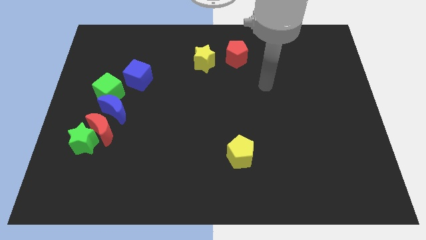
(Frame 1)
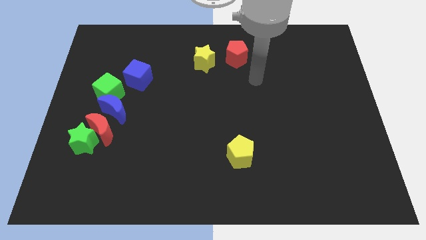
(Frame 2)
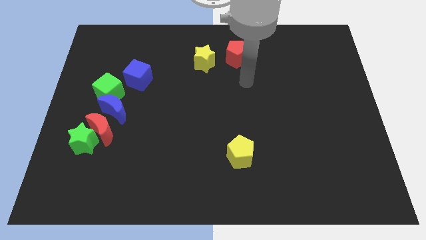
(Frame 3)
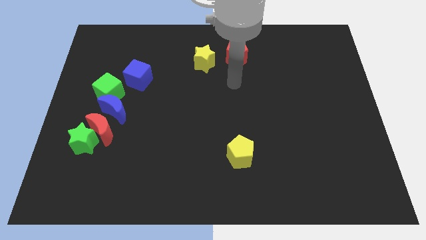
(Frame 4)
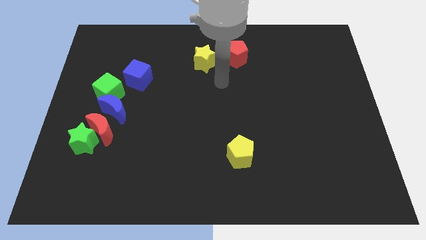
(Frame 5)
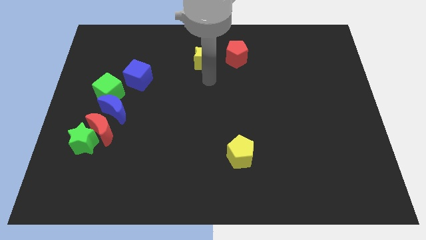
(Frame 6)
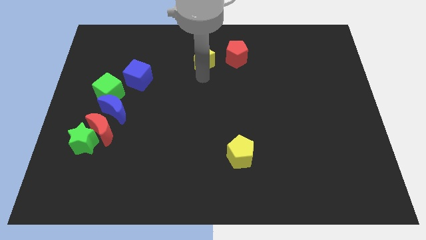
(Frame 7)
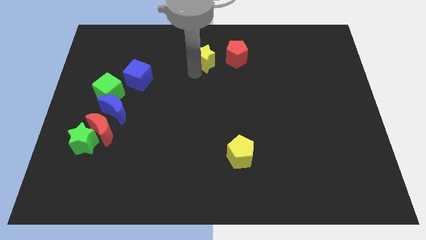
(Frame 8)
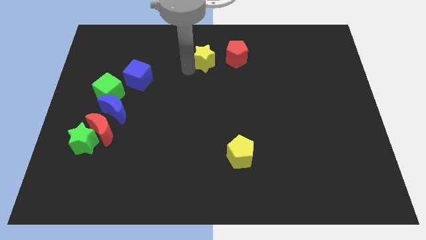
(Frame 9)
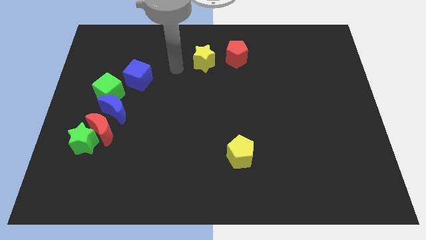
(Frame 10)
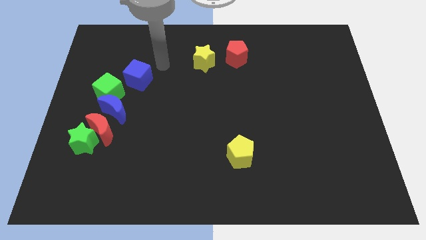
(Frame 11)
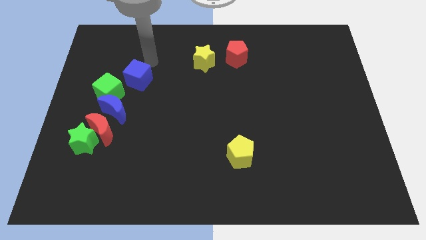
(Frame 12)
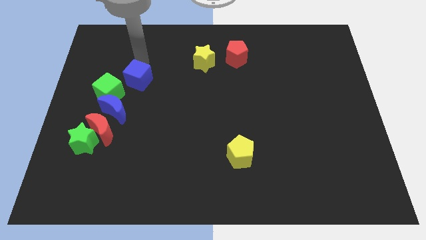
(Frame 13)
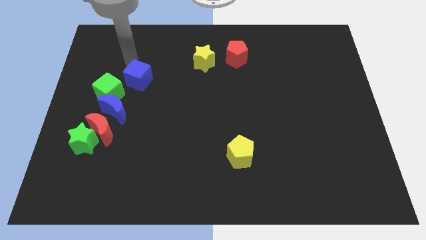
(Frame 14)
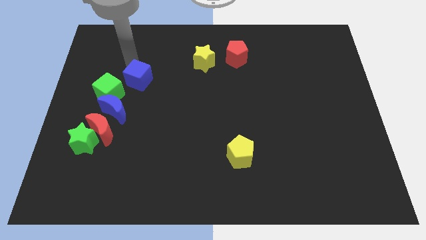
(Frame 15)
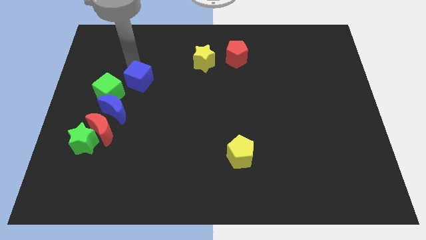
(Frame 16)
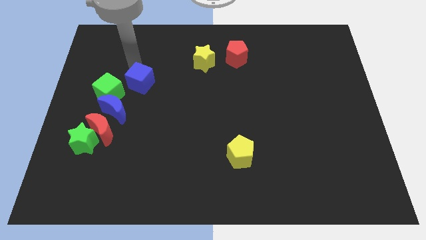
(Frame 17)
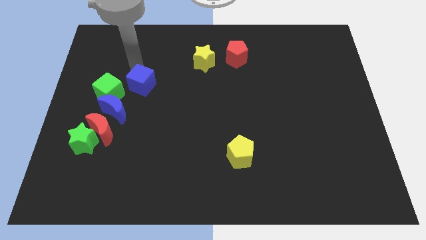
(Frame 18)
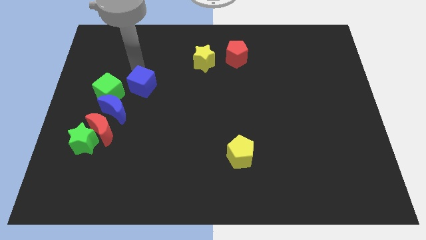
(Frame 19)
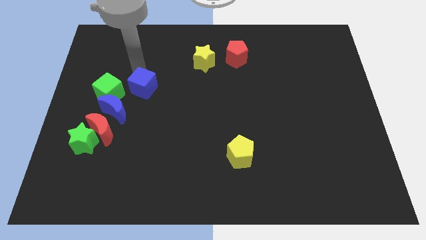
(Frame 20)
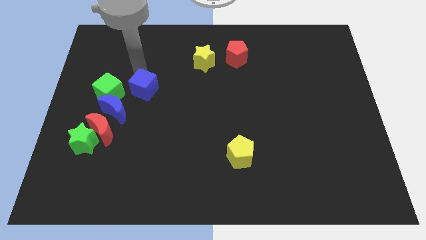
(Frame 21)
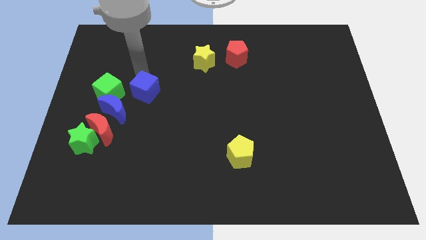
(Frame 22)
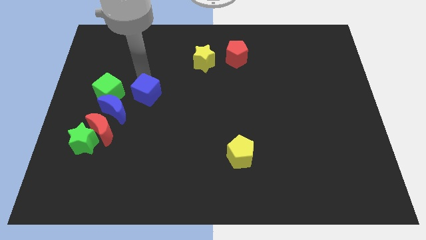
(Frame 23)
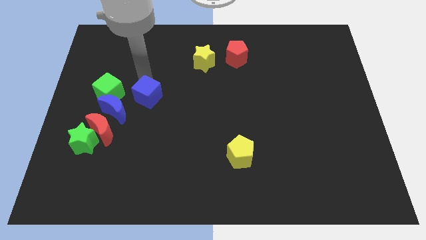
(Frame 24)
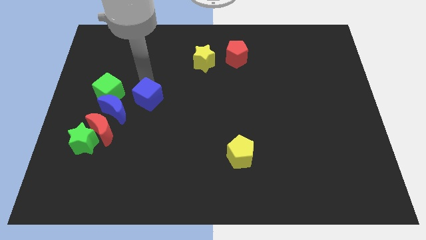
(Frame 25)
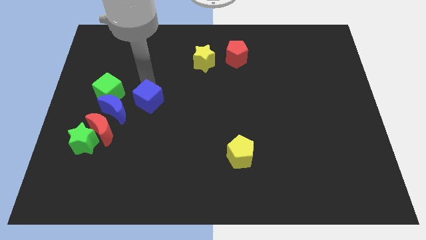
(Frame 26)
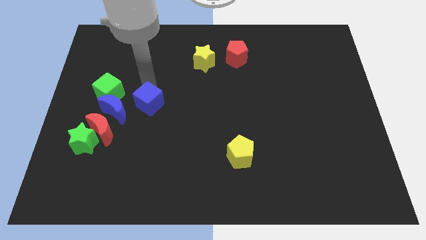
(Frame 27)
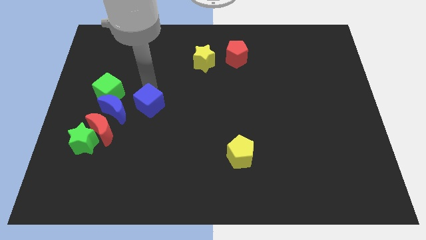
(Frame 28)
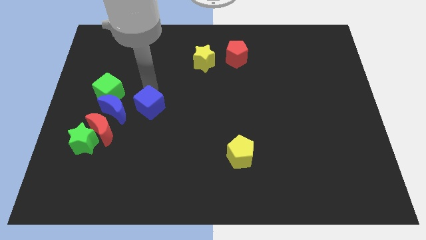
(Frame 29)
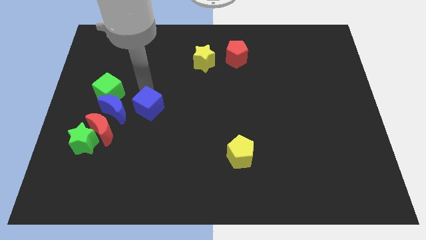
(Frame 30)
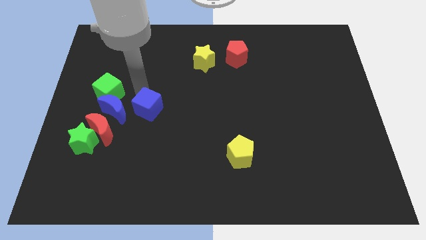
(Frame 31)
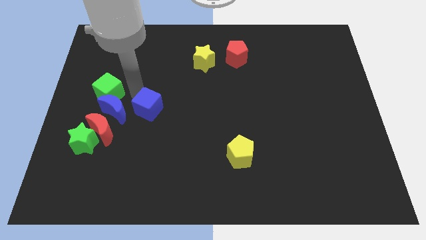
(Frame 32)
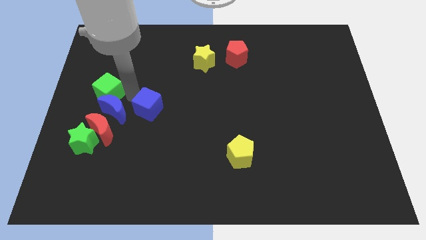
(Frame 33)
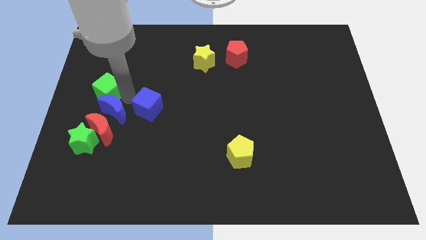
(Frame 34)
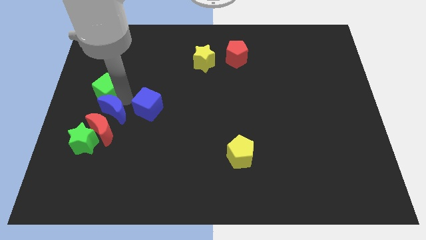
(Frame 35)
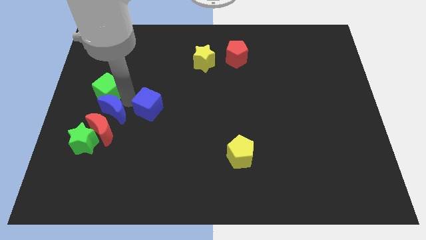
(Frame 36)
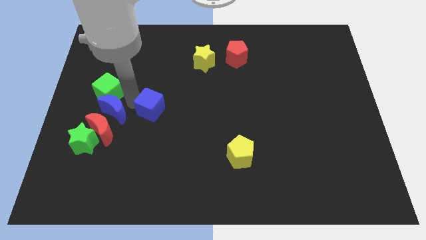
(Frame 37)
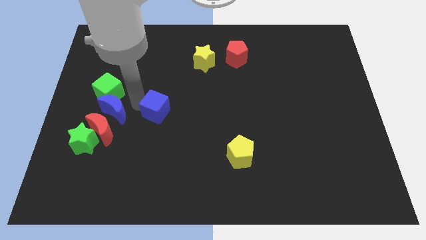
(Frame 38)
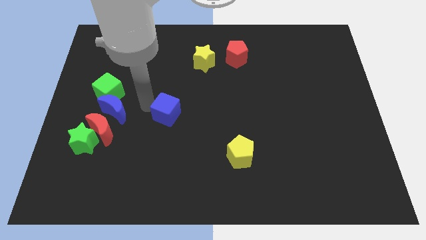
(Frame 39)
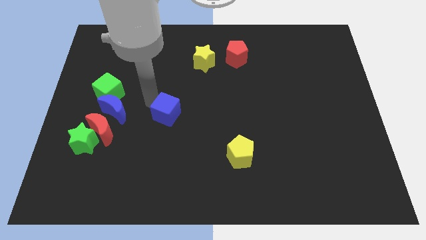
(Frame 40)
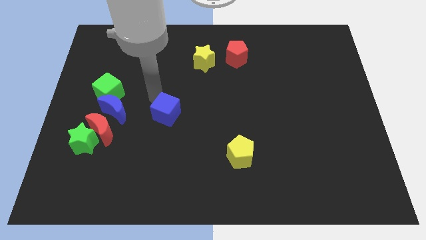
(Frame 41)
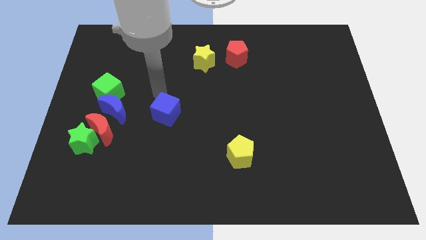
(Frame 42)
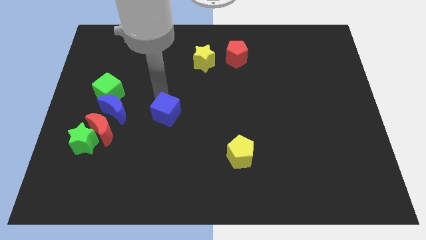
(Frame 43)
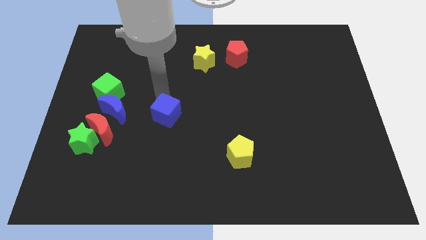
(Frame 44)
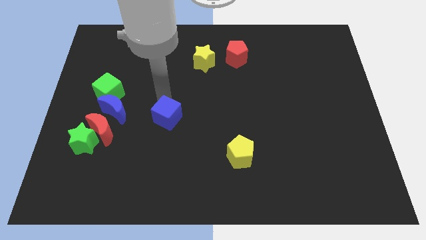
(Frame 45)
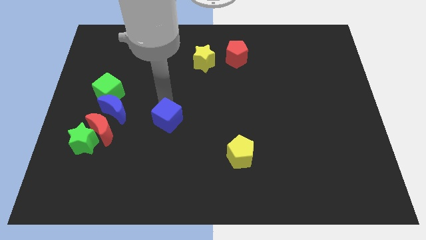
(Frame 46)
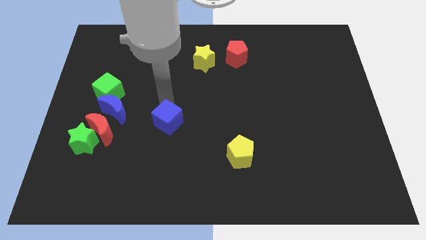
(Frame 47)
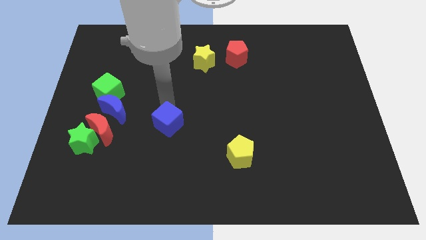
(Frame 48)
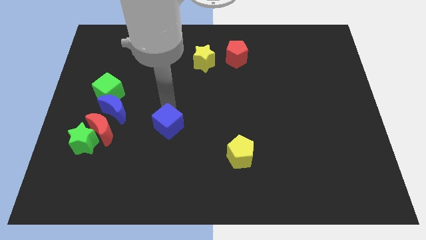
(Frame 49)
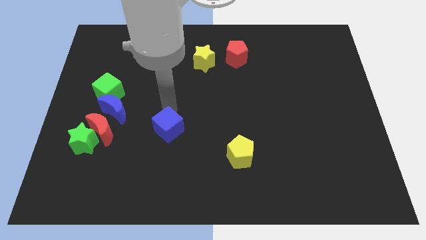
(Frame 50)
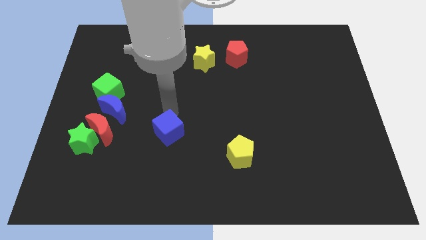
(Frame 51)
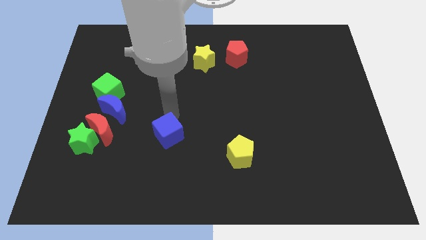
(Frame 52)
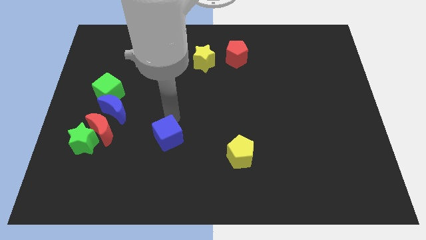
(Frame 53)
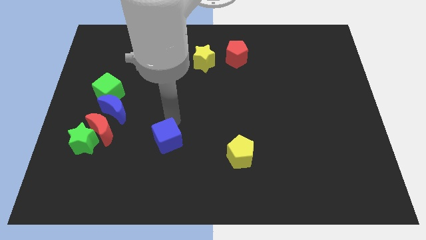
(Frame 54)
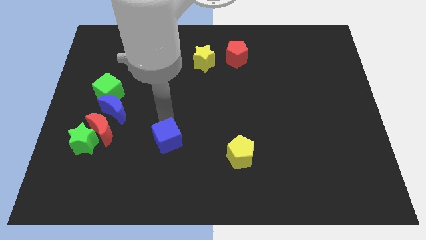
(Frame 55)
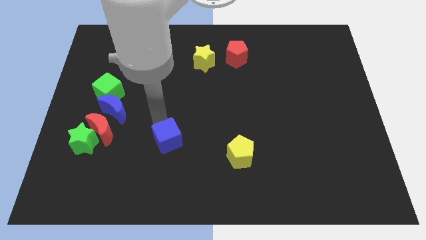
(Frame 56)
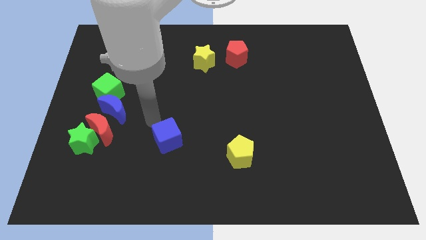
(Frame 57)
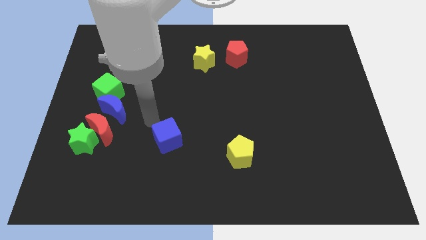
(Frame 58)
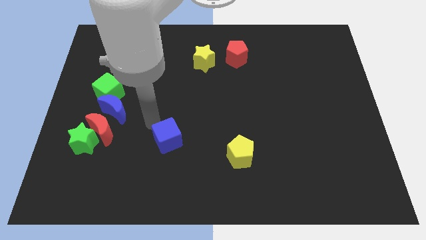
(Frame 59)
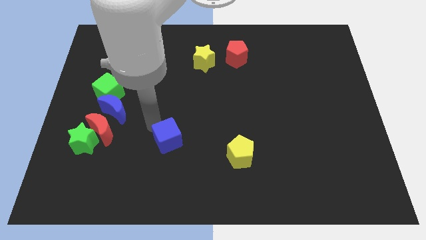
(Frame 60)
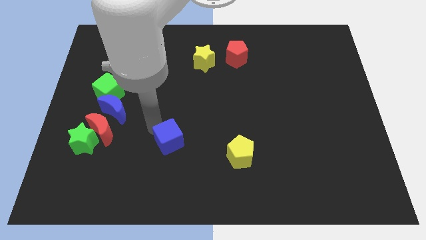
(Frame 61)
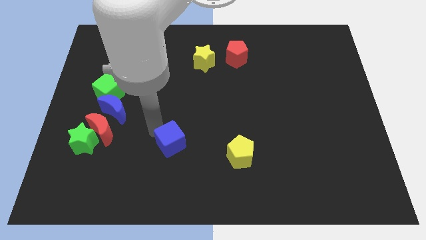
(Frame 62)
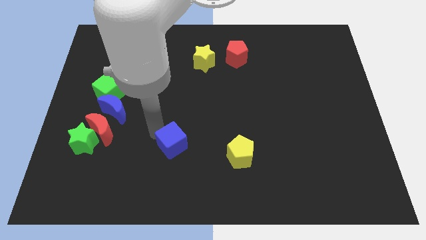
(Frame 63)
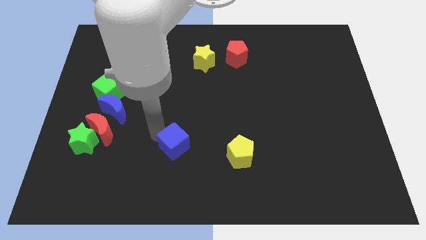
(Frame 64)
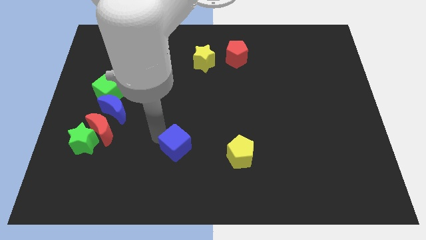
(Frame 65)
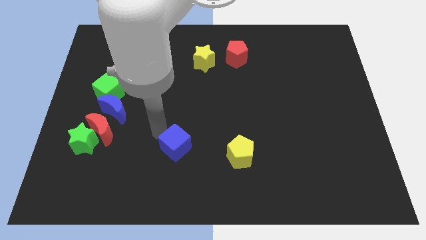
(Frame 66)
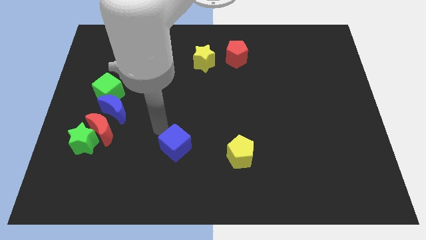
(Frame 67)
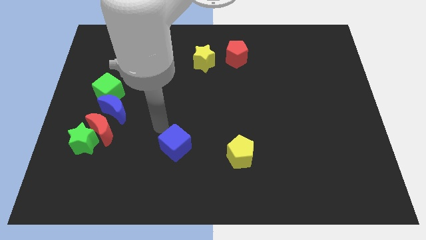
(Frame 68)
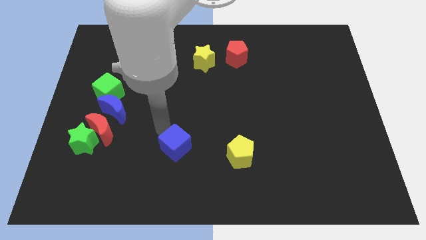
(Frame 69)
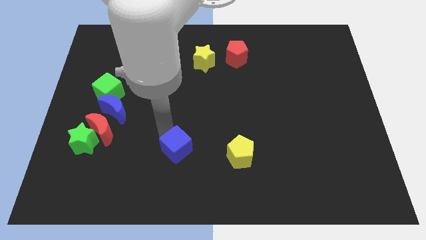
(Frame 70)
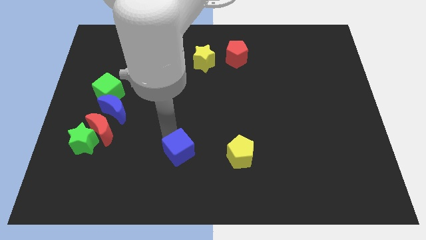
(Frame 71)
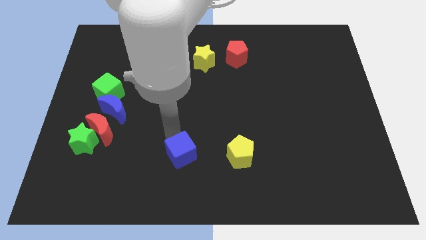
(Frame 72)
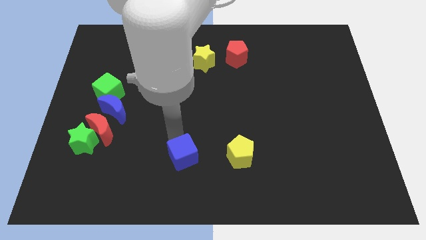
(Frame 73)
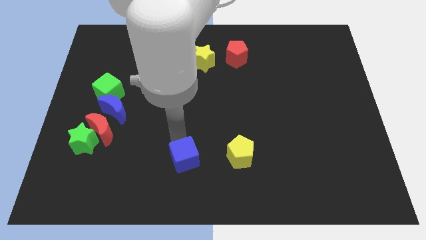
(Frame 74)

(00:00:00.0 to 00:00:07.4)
put the blue cube to the bottom side
